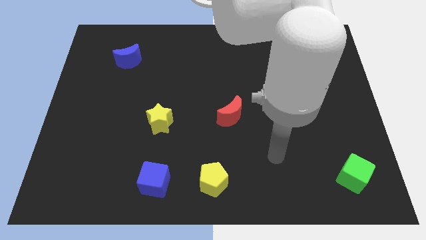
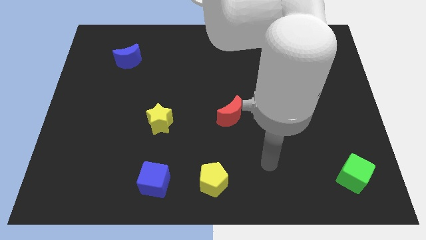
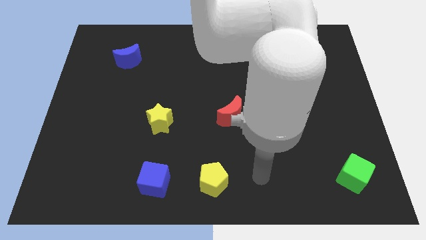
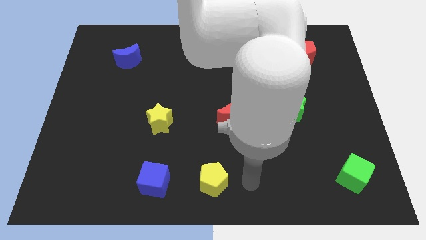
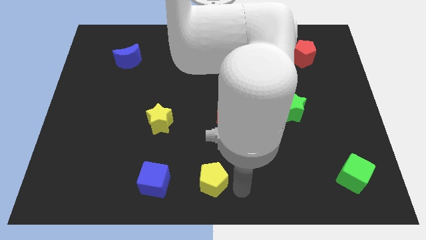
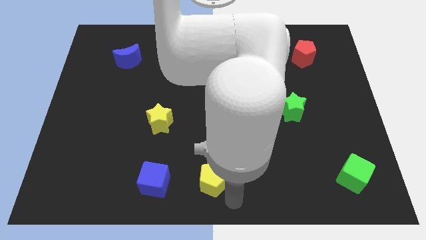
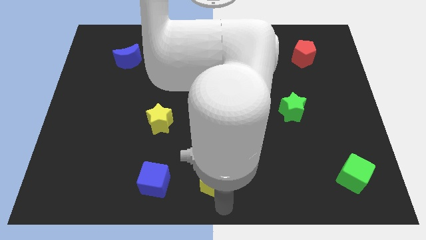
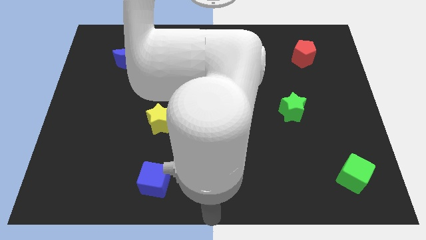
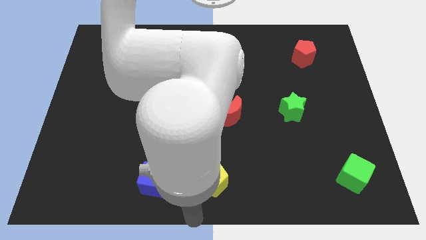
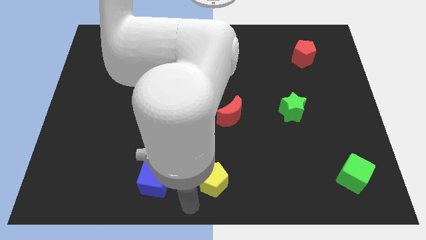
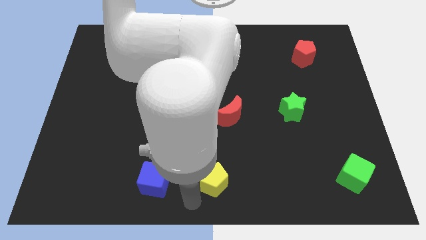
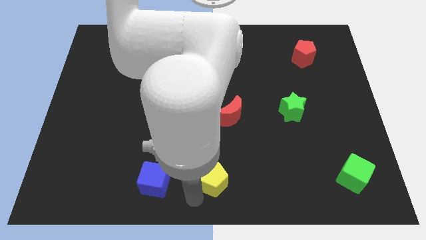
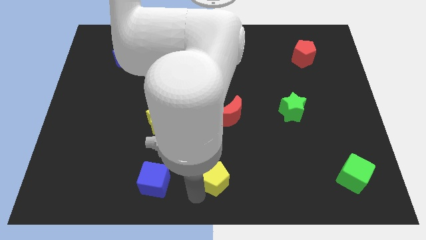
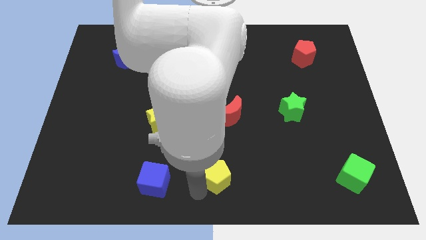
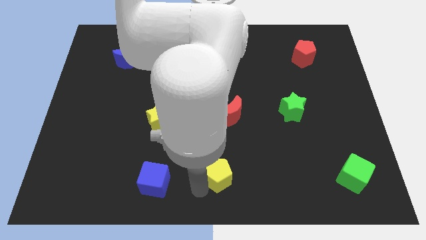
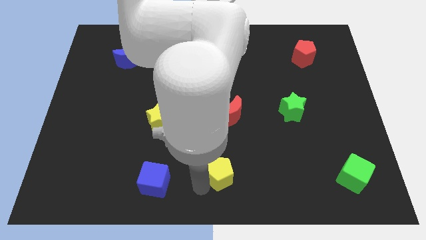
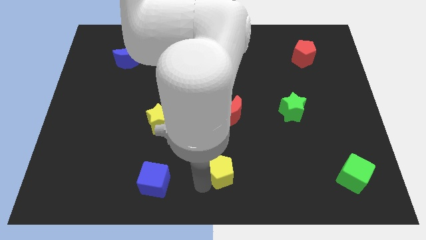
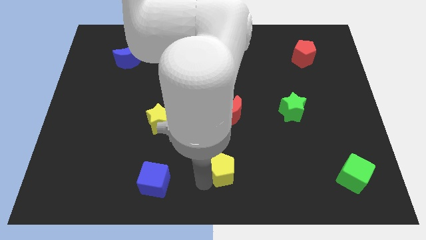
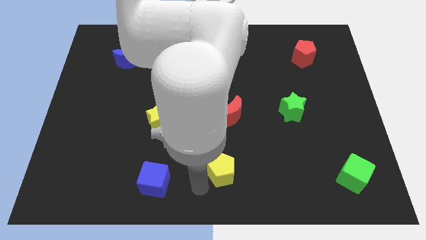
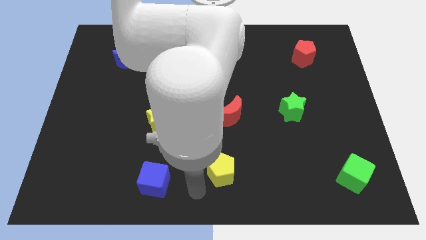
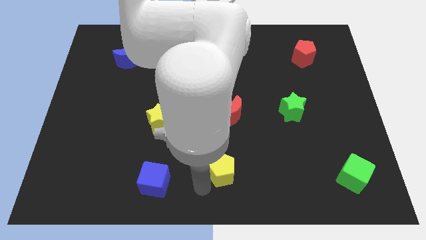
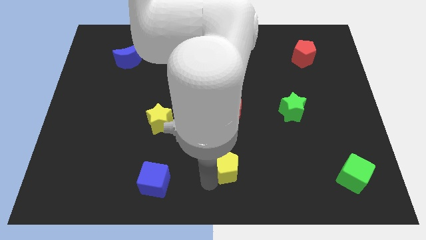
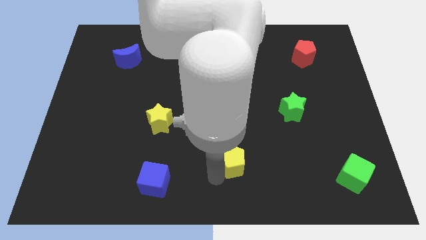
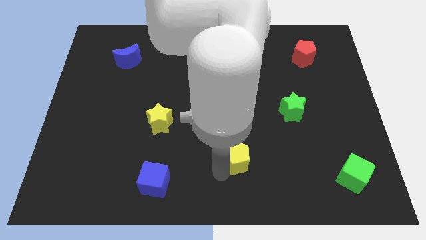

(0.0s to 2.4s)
slightly slide the yellow pentagon up and right diagonally

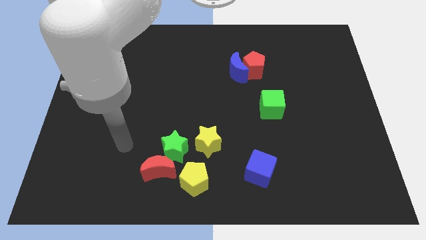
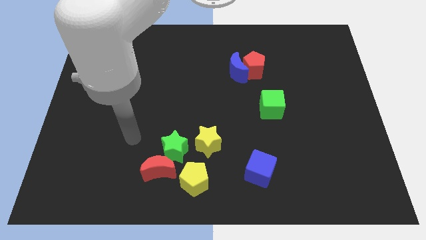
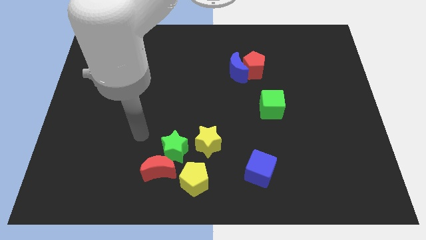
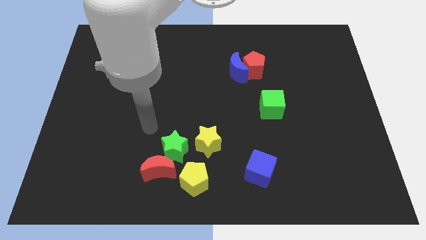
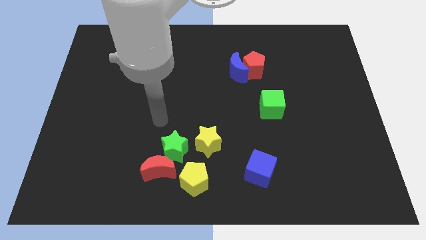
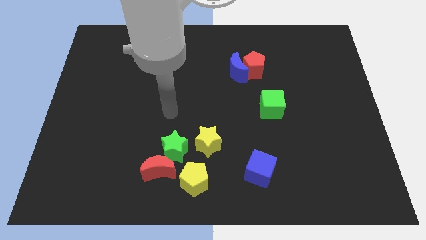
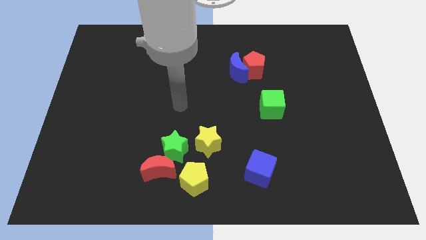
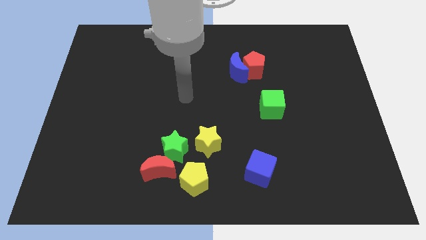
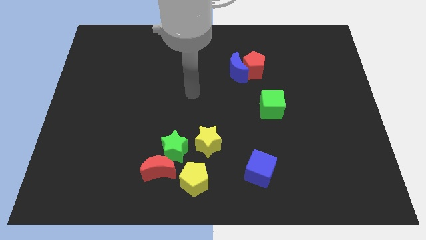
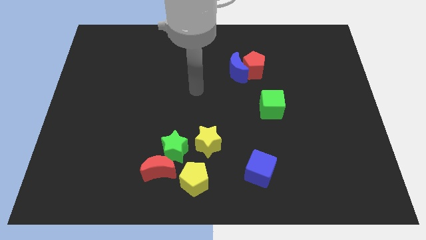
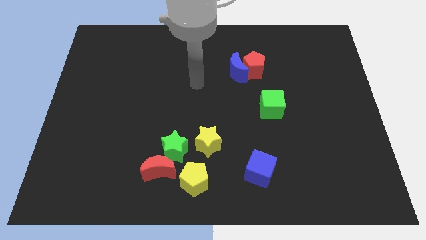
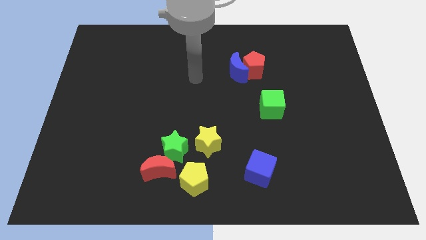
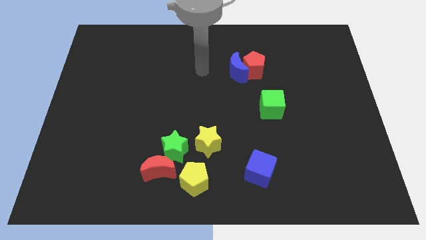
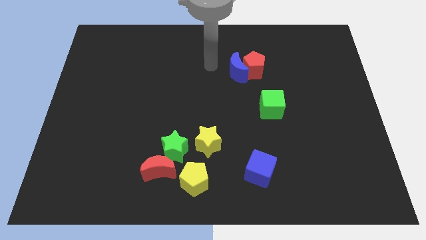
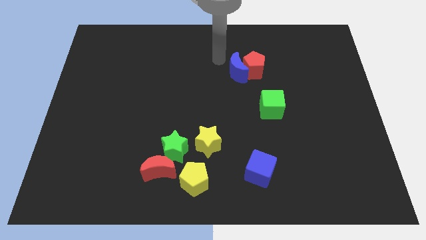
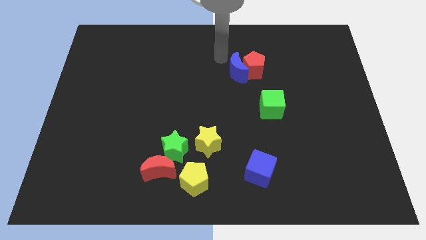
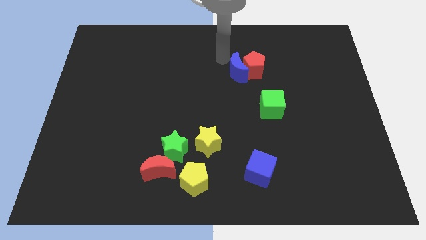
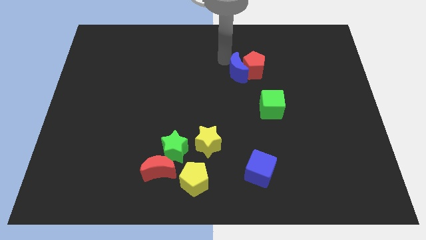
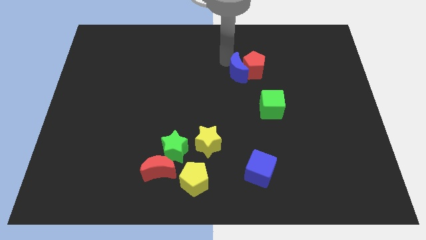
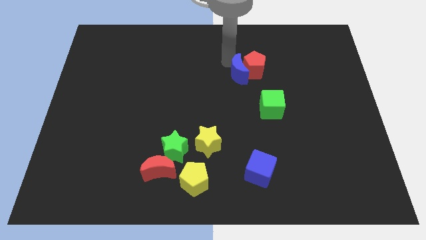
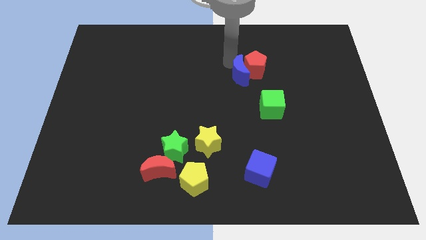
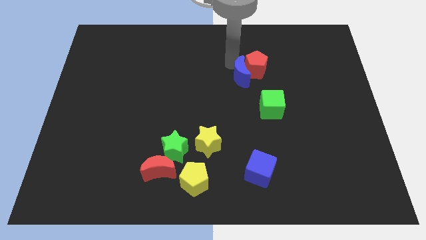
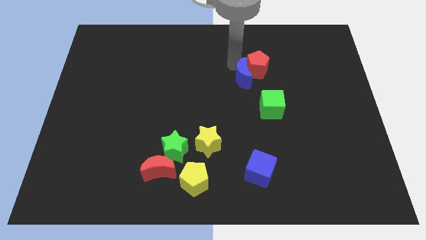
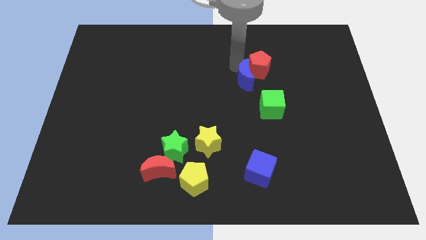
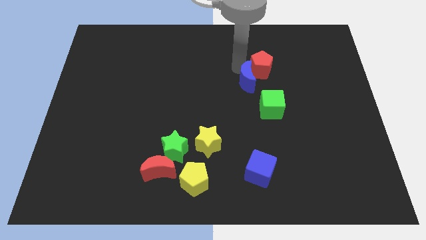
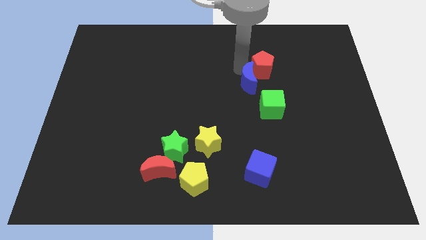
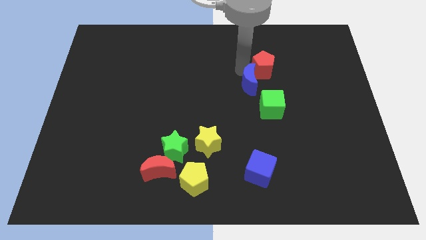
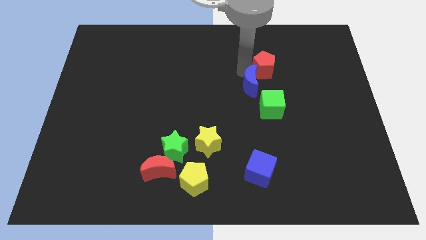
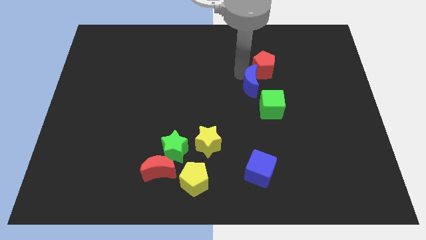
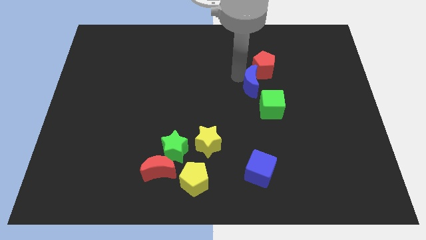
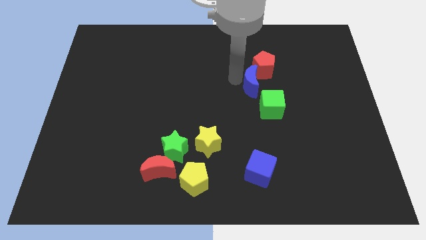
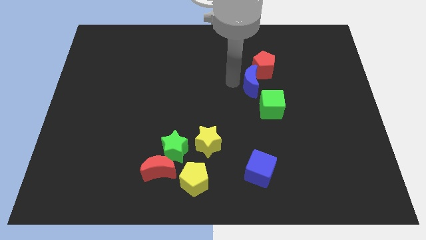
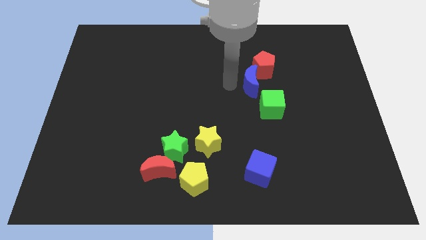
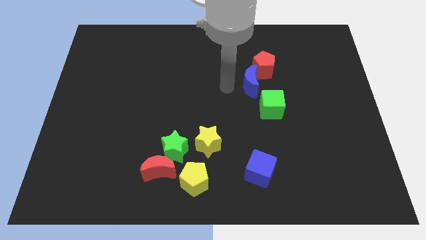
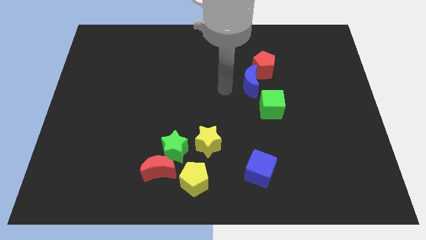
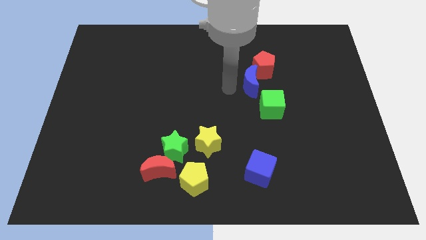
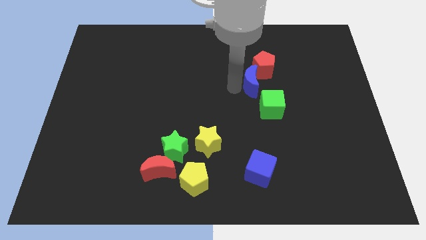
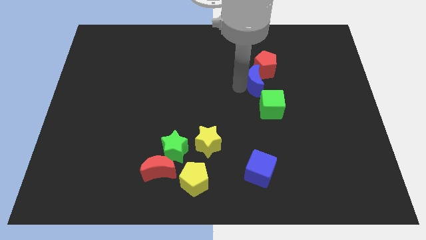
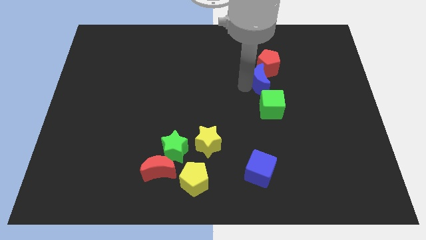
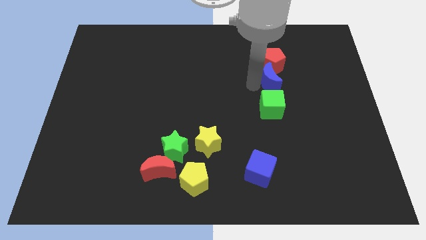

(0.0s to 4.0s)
move the blue moon a bit to the right

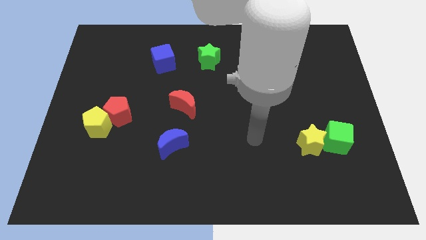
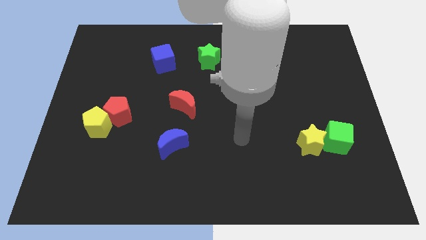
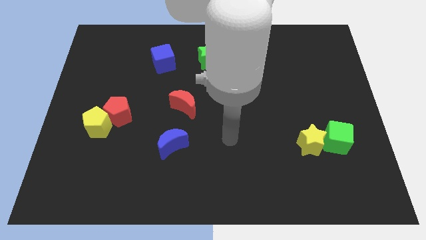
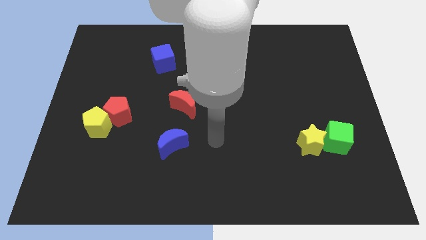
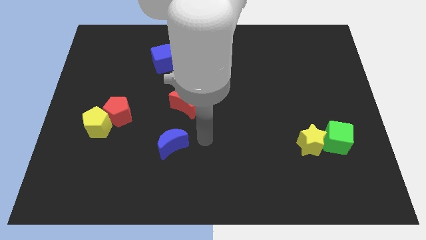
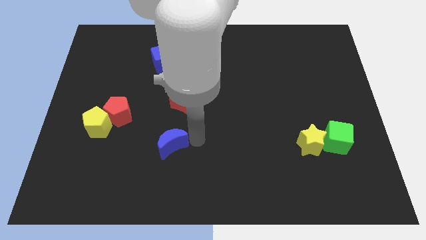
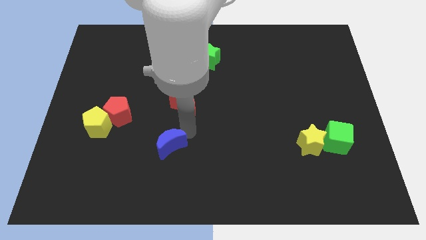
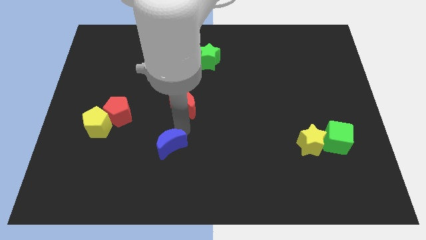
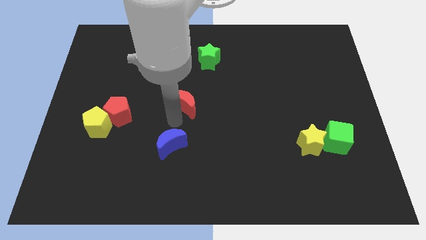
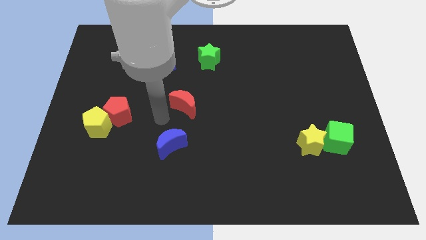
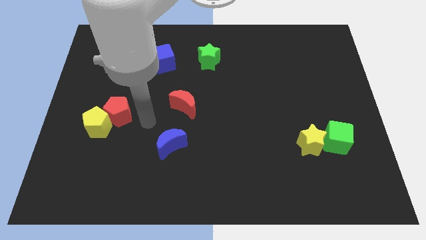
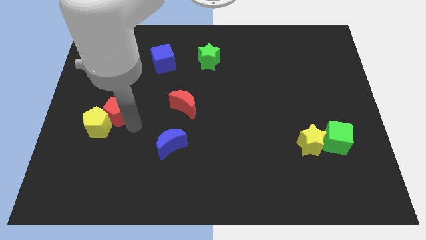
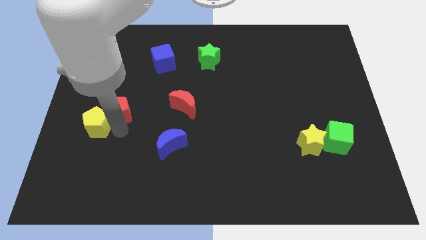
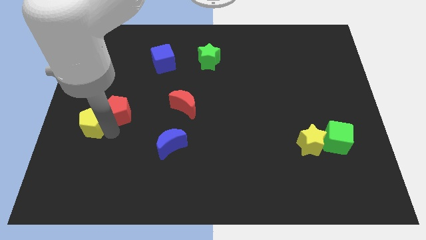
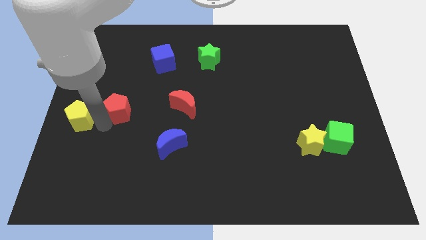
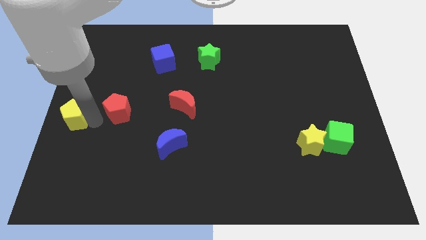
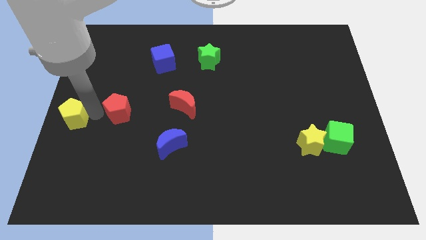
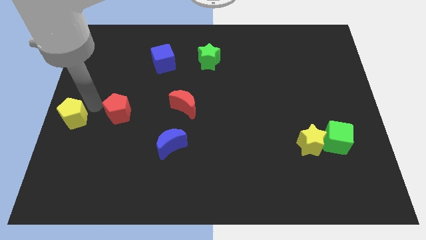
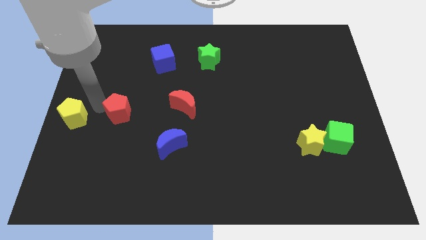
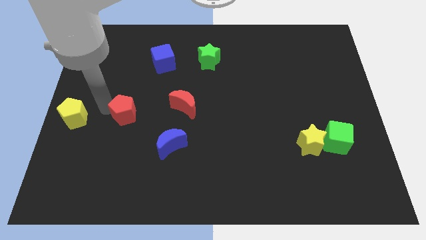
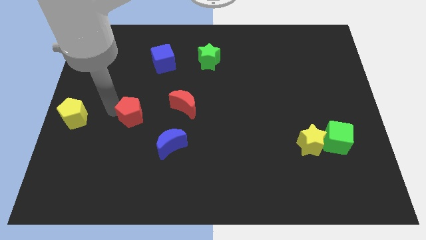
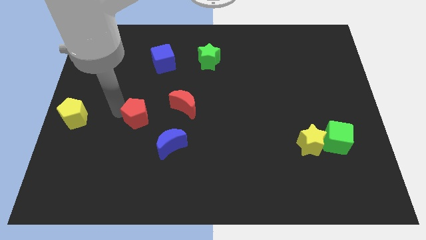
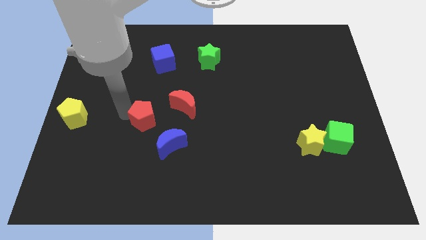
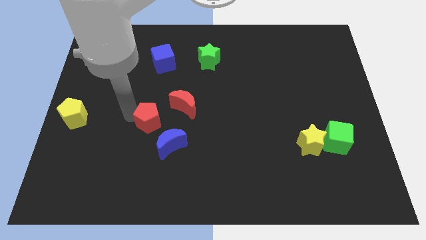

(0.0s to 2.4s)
slightly push the red pentagon right
